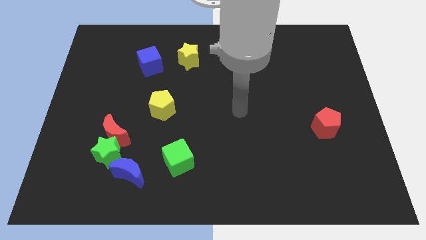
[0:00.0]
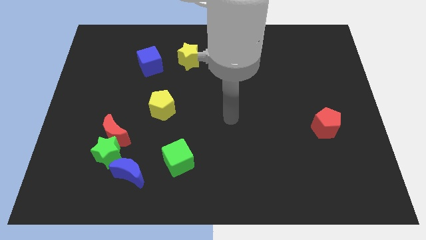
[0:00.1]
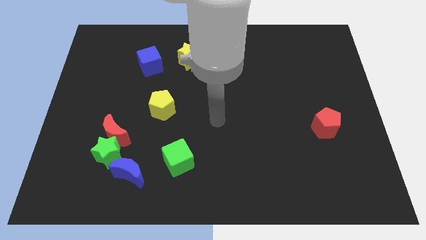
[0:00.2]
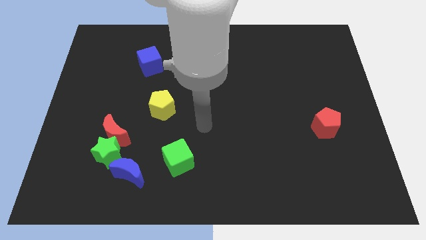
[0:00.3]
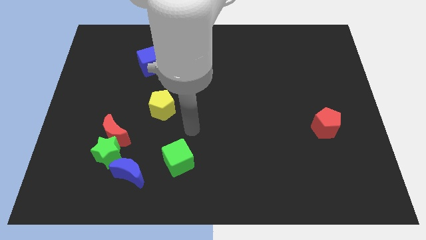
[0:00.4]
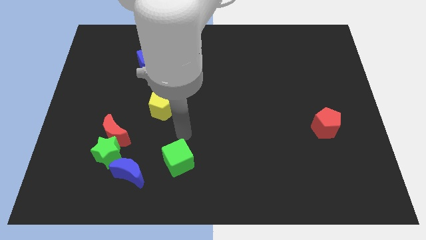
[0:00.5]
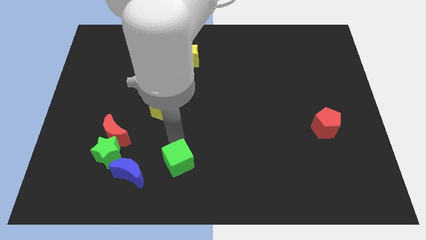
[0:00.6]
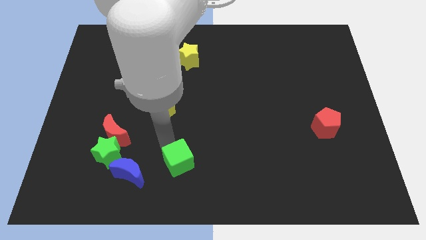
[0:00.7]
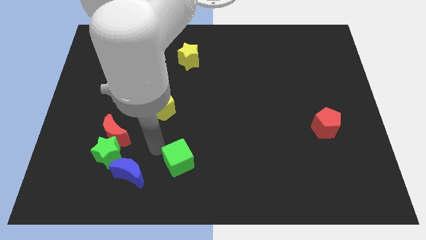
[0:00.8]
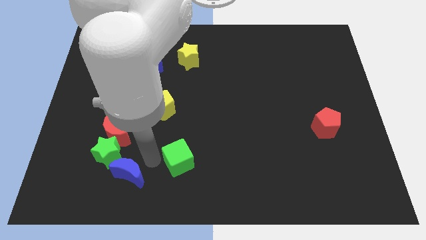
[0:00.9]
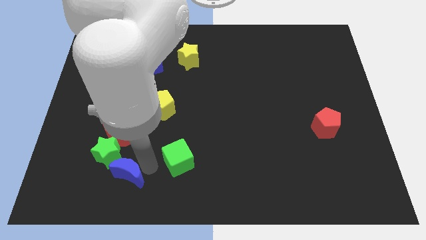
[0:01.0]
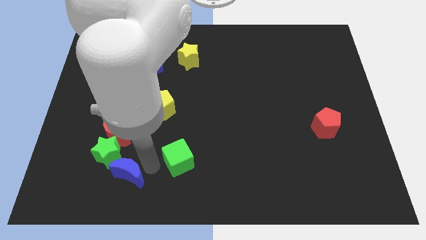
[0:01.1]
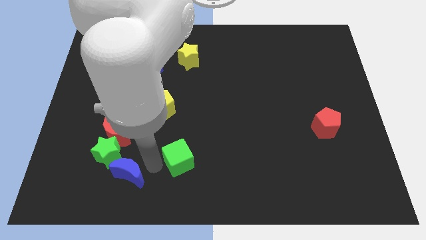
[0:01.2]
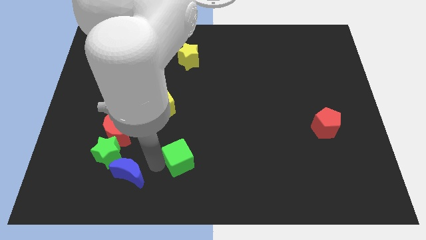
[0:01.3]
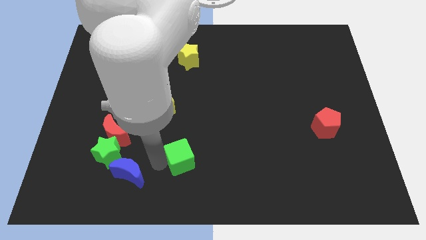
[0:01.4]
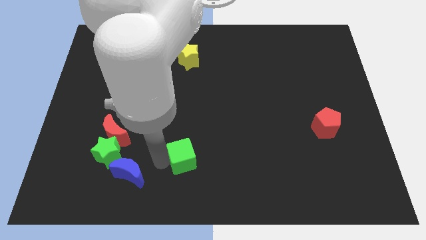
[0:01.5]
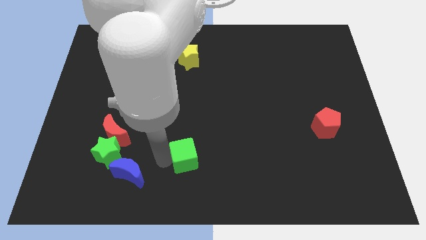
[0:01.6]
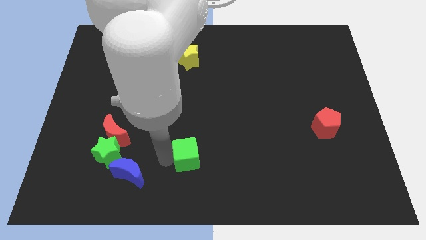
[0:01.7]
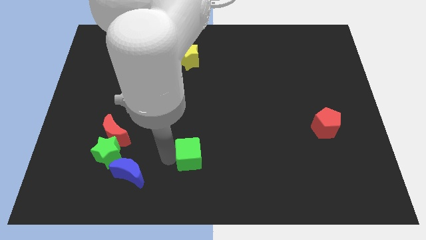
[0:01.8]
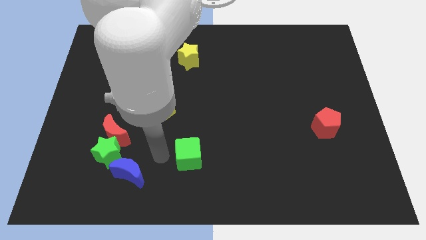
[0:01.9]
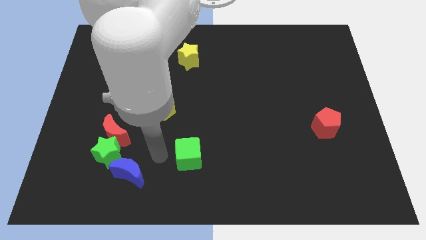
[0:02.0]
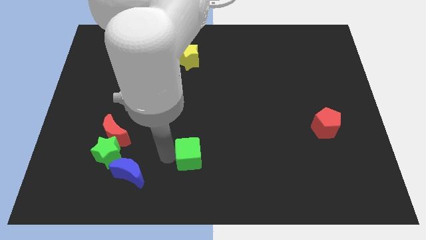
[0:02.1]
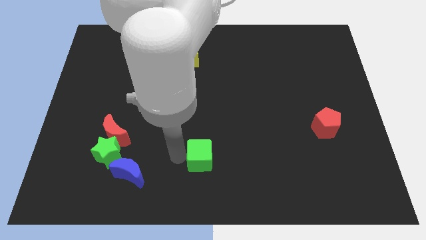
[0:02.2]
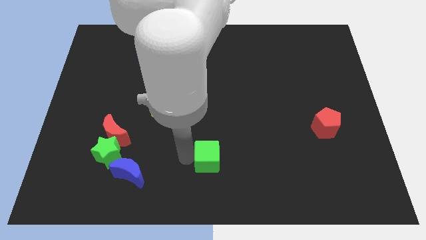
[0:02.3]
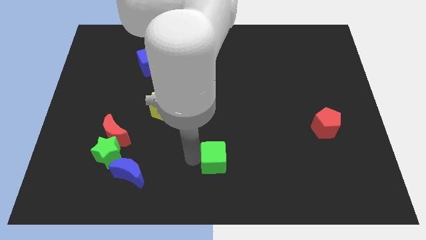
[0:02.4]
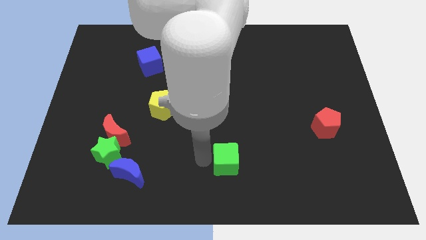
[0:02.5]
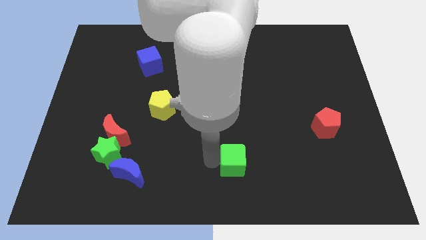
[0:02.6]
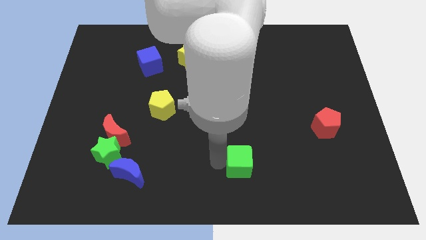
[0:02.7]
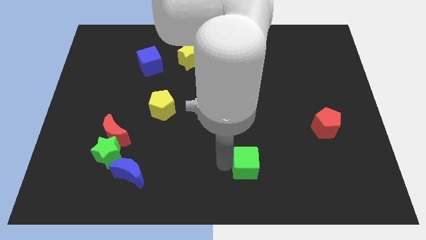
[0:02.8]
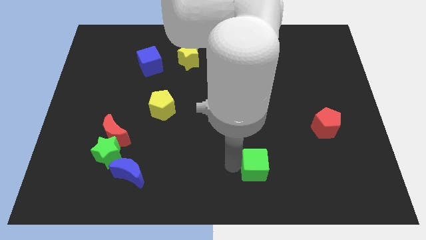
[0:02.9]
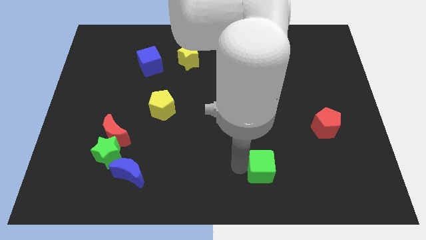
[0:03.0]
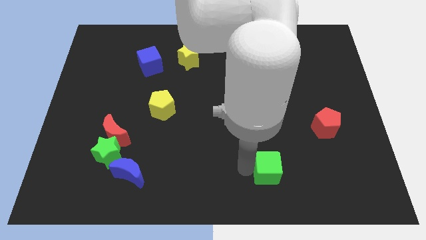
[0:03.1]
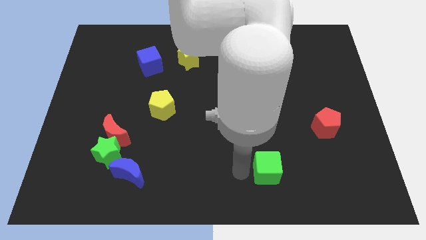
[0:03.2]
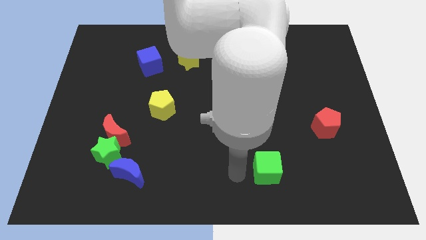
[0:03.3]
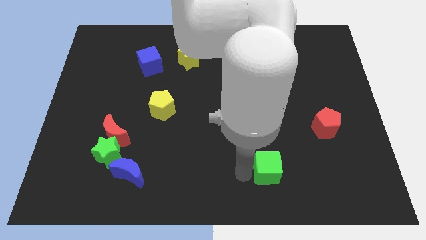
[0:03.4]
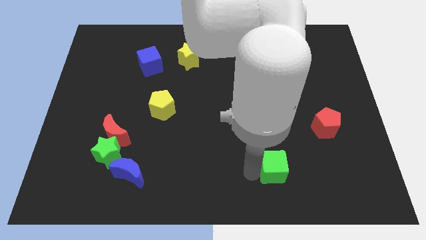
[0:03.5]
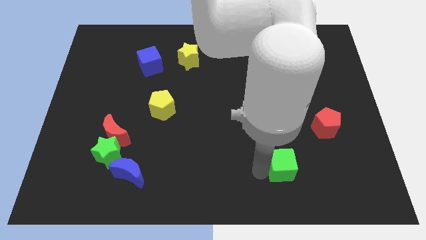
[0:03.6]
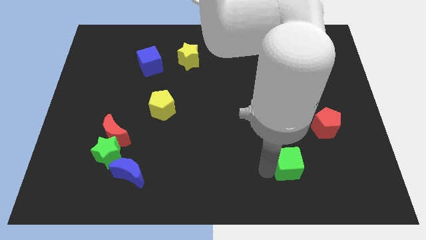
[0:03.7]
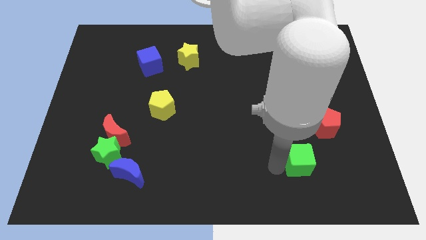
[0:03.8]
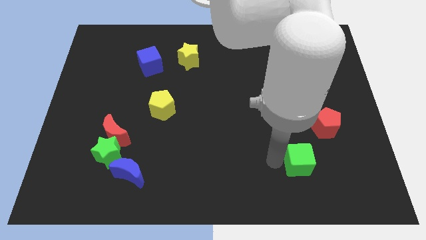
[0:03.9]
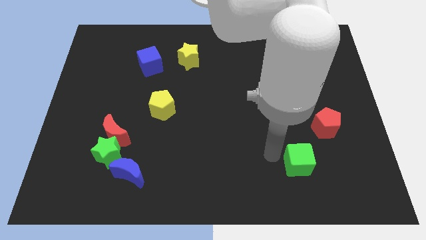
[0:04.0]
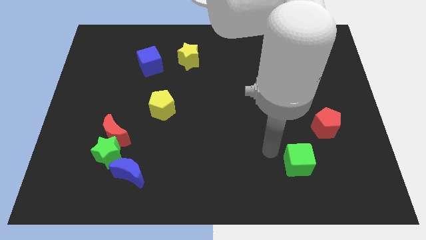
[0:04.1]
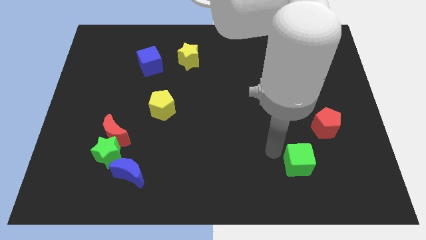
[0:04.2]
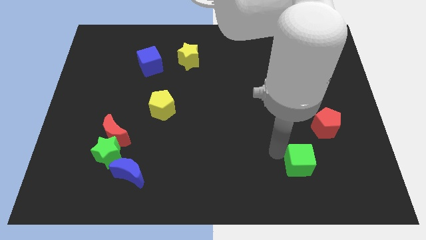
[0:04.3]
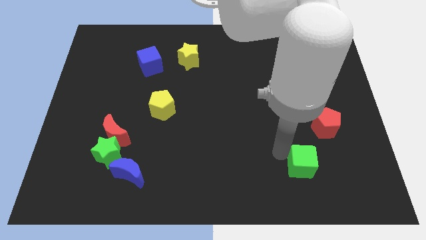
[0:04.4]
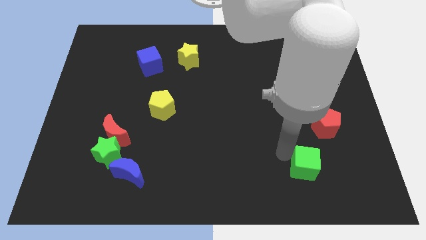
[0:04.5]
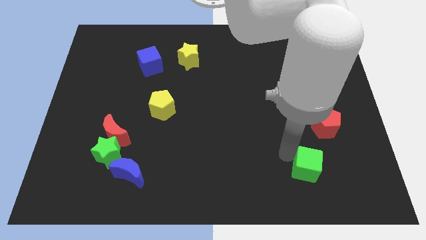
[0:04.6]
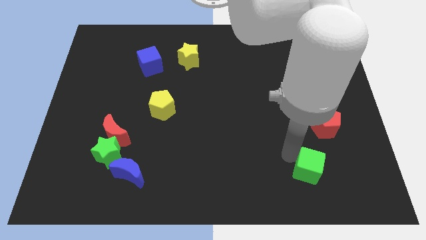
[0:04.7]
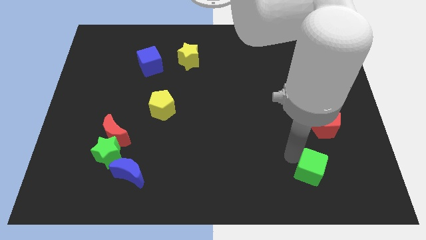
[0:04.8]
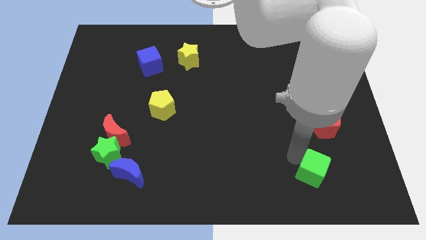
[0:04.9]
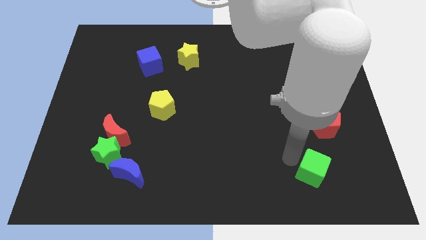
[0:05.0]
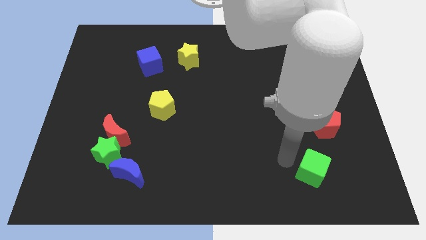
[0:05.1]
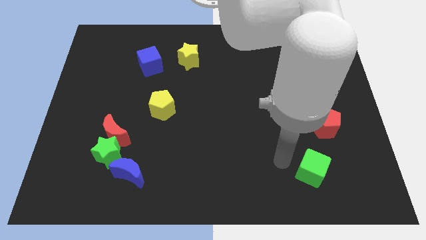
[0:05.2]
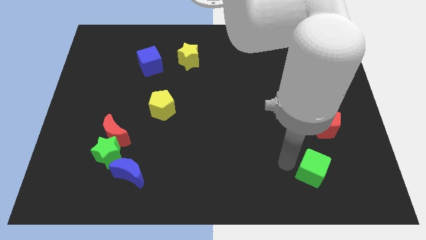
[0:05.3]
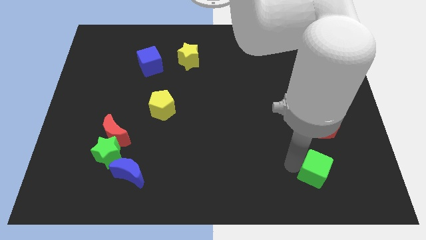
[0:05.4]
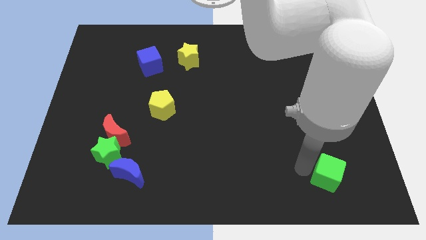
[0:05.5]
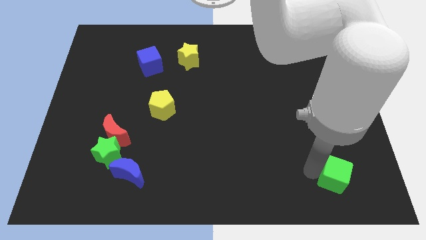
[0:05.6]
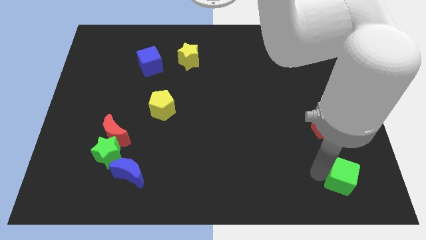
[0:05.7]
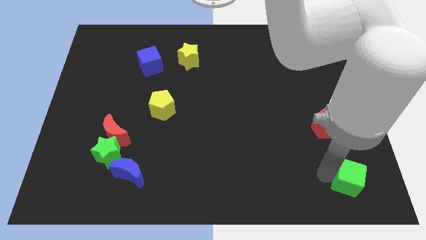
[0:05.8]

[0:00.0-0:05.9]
move the green cube to the bottom right corner
